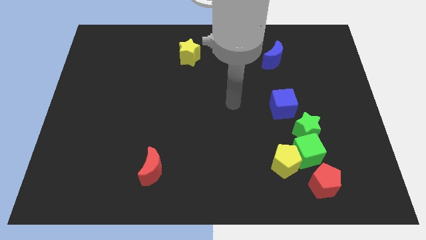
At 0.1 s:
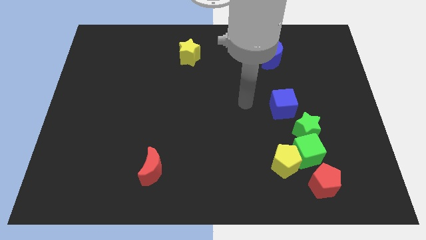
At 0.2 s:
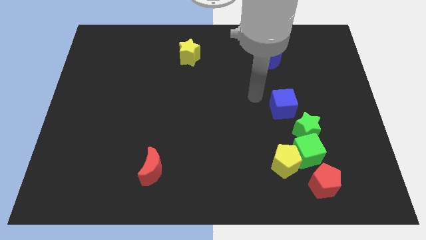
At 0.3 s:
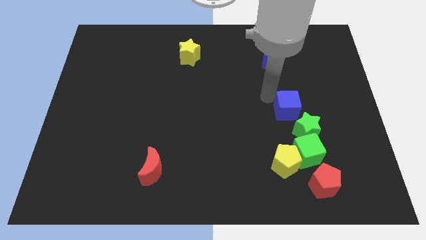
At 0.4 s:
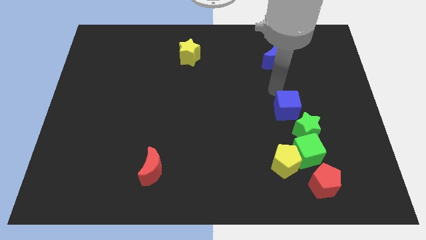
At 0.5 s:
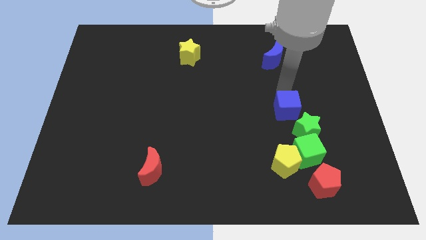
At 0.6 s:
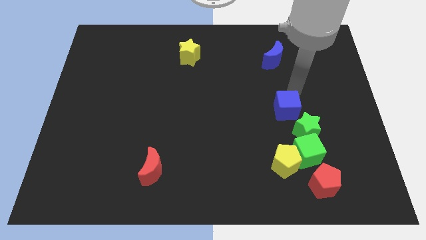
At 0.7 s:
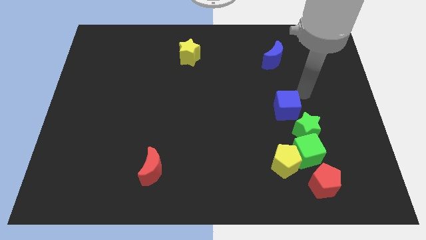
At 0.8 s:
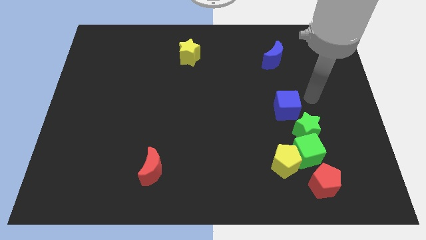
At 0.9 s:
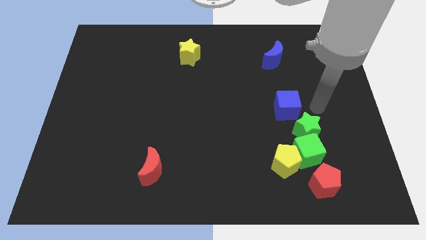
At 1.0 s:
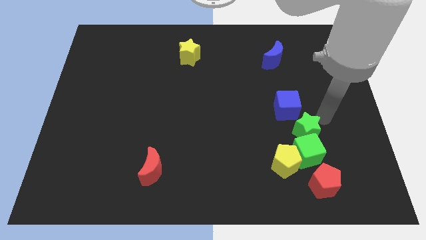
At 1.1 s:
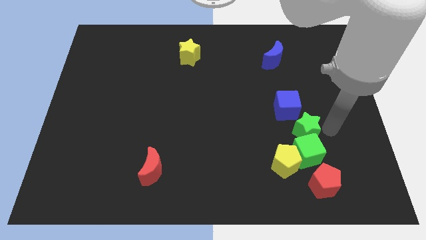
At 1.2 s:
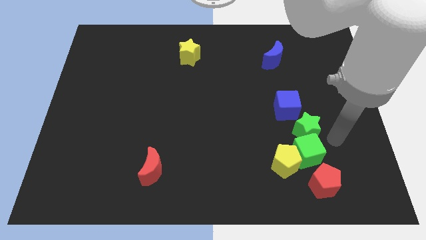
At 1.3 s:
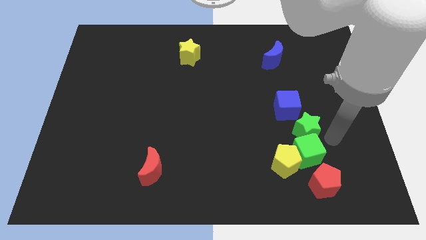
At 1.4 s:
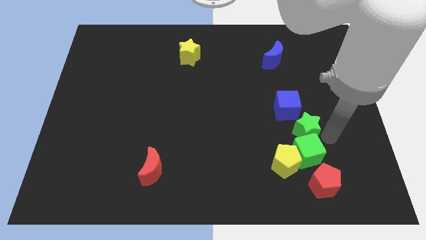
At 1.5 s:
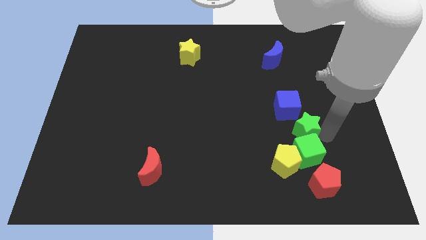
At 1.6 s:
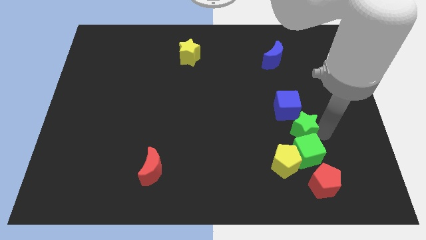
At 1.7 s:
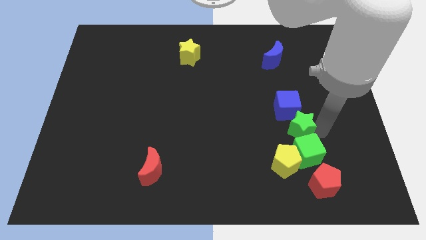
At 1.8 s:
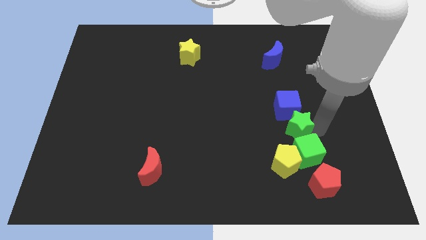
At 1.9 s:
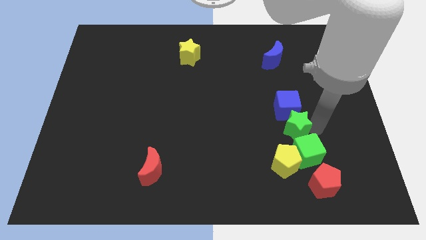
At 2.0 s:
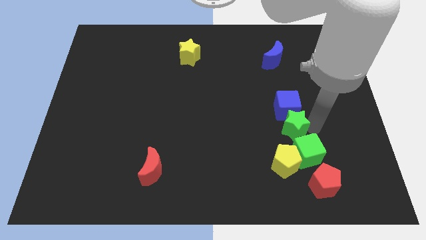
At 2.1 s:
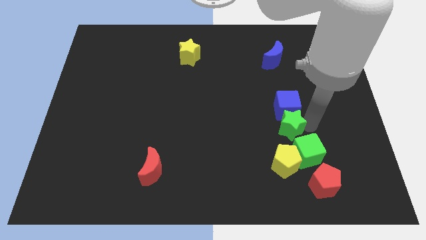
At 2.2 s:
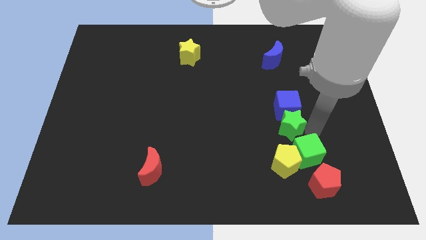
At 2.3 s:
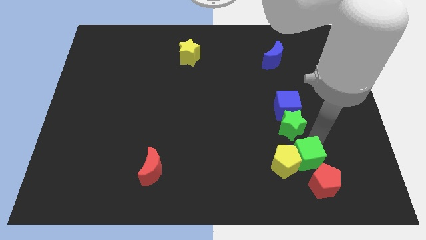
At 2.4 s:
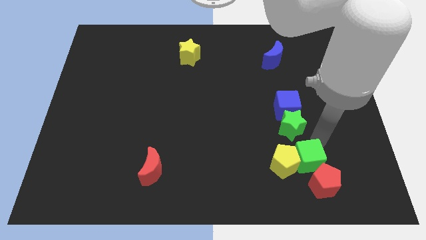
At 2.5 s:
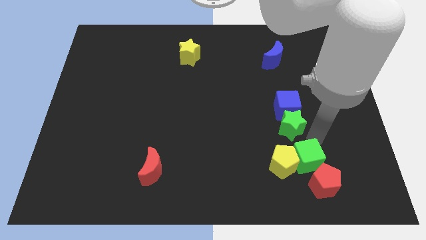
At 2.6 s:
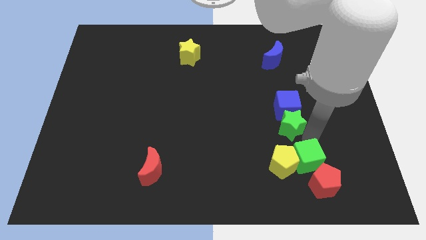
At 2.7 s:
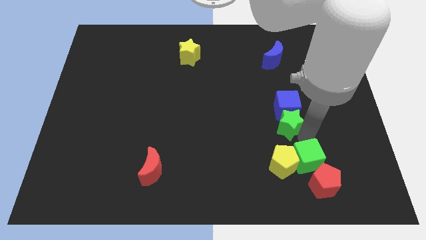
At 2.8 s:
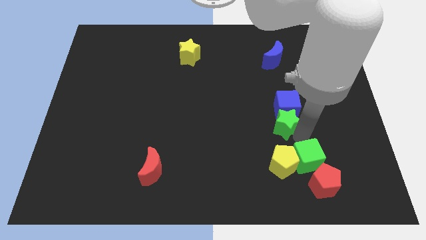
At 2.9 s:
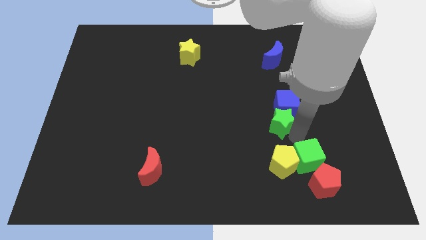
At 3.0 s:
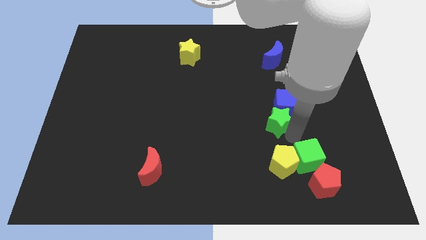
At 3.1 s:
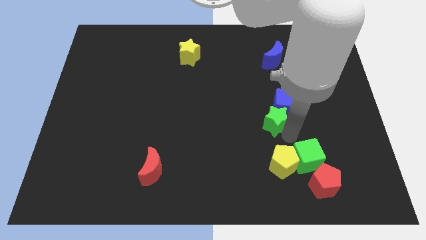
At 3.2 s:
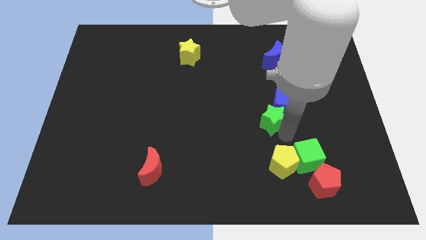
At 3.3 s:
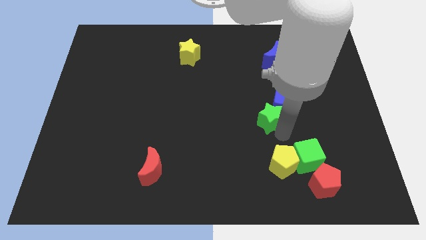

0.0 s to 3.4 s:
slightly push the green star up and left

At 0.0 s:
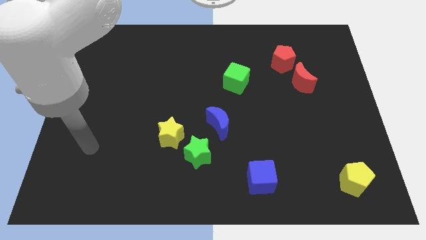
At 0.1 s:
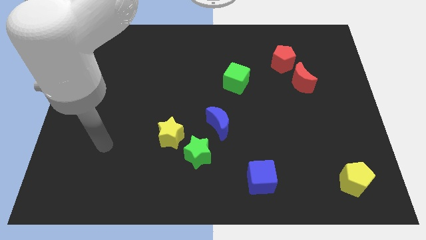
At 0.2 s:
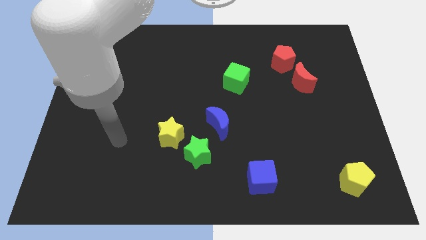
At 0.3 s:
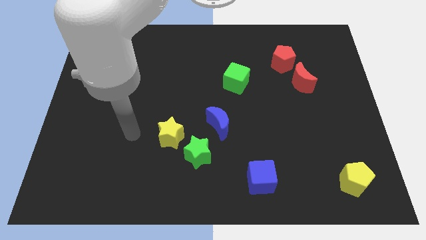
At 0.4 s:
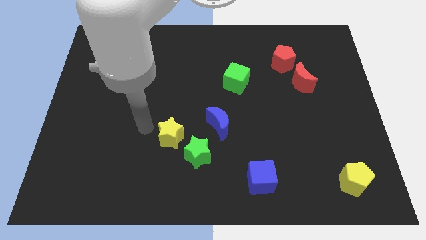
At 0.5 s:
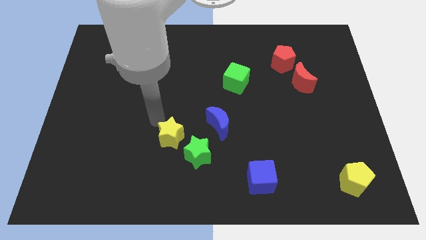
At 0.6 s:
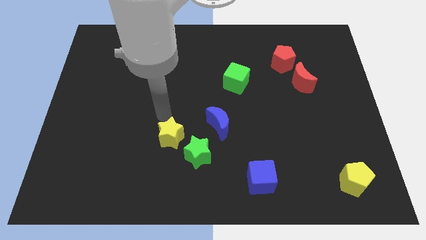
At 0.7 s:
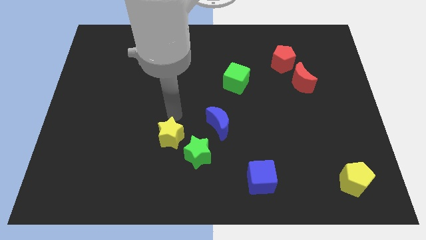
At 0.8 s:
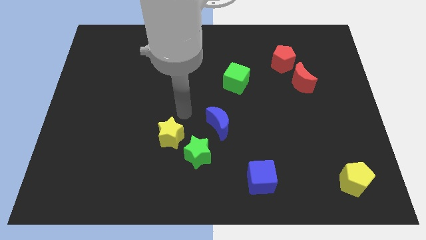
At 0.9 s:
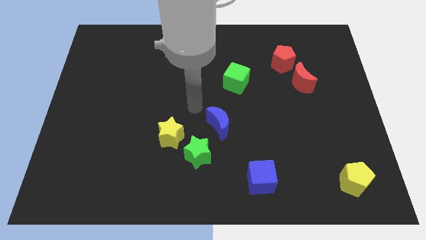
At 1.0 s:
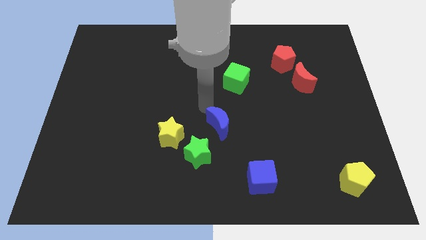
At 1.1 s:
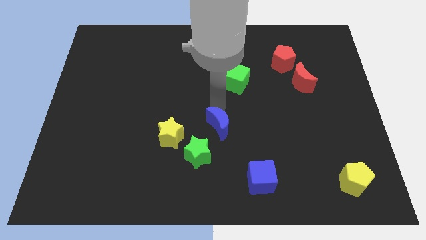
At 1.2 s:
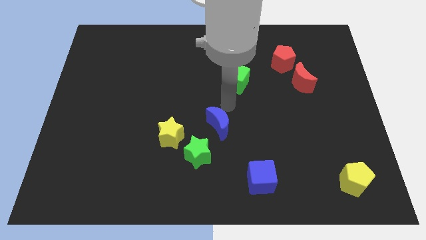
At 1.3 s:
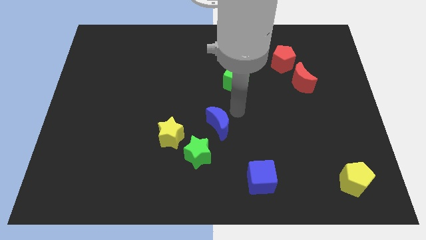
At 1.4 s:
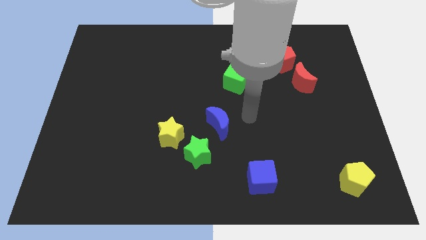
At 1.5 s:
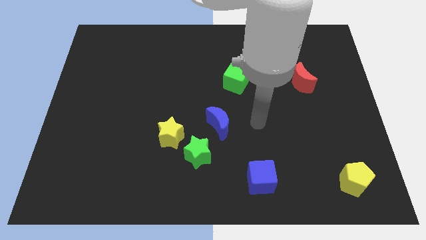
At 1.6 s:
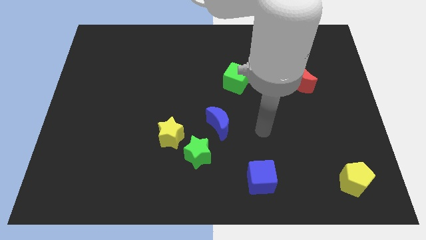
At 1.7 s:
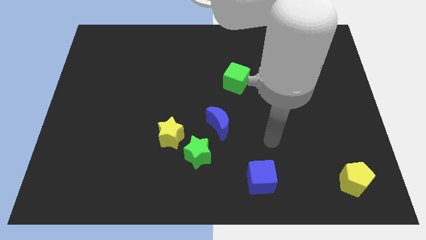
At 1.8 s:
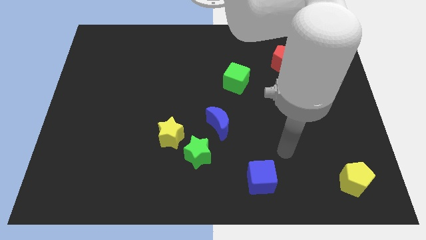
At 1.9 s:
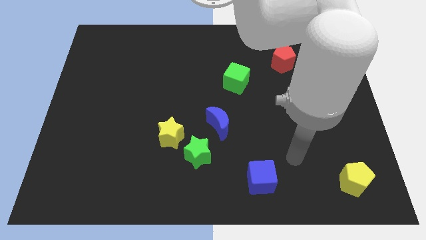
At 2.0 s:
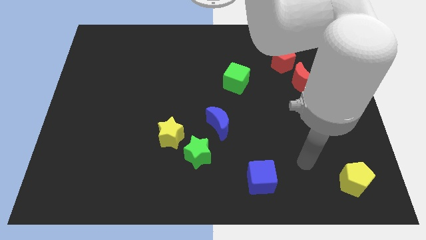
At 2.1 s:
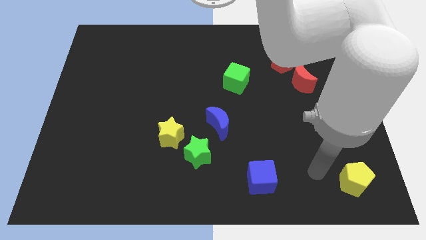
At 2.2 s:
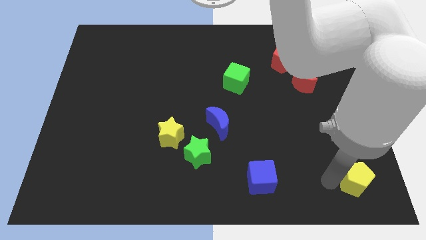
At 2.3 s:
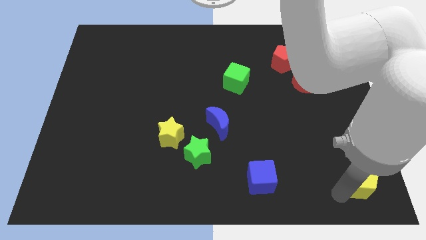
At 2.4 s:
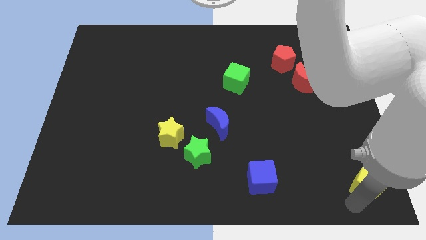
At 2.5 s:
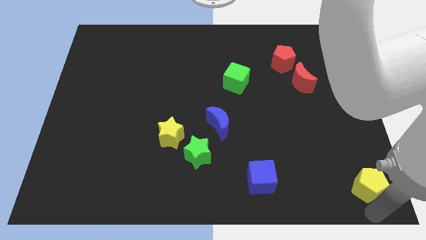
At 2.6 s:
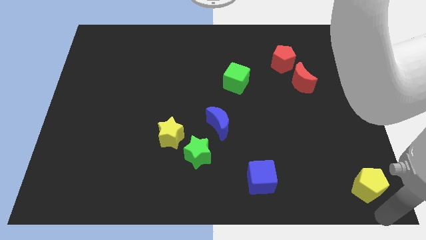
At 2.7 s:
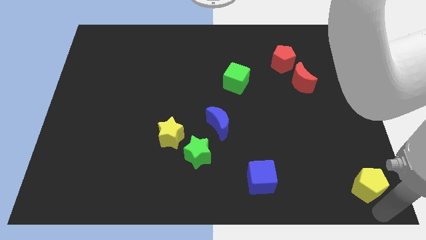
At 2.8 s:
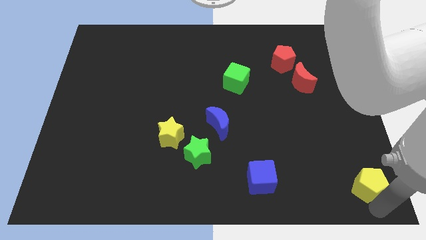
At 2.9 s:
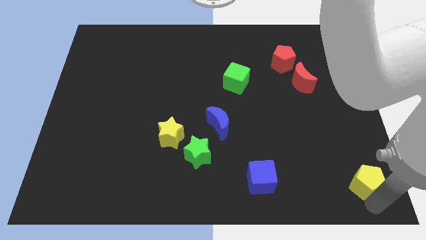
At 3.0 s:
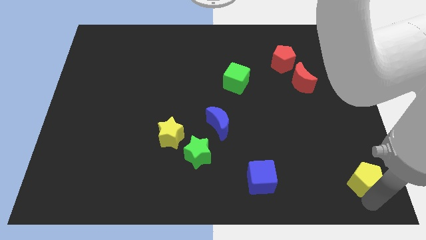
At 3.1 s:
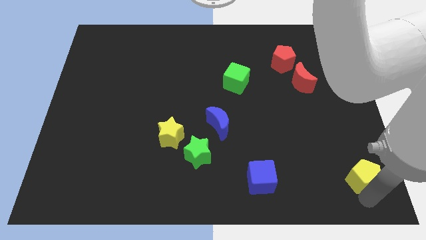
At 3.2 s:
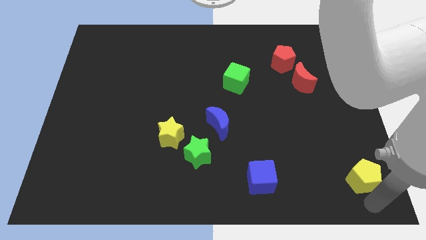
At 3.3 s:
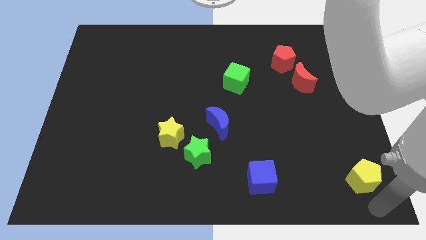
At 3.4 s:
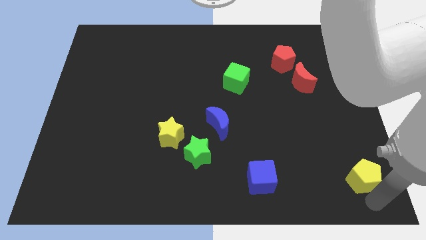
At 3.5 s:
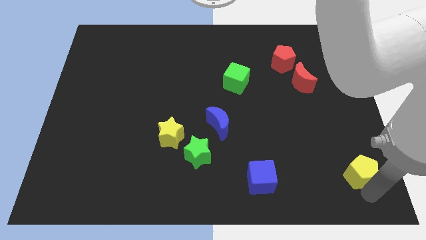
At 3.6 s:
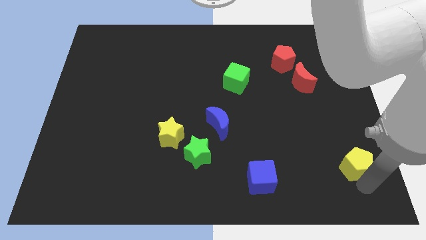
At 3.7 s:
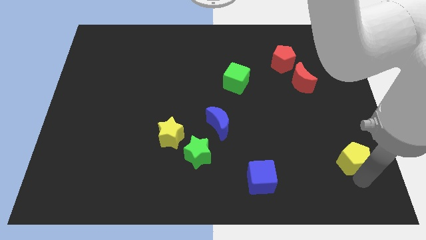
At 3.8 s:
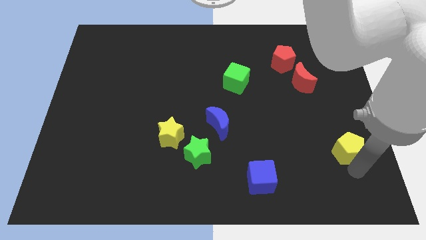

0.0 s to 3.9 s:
push the yellow pentagon slightly upwards

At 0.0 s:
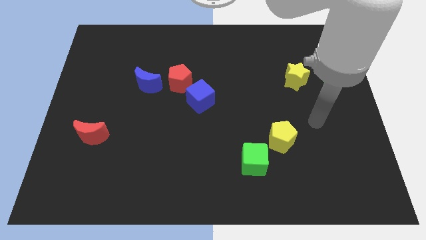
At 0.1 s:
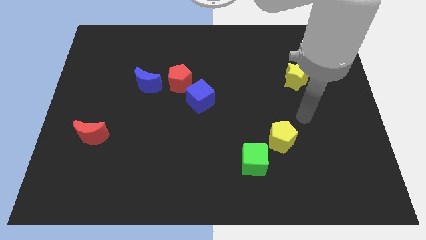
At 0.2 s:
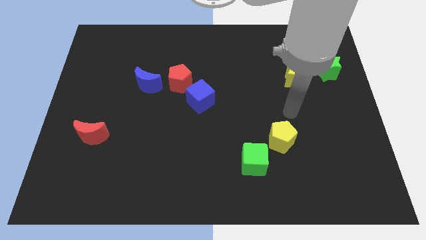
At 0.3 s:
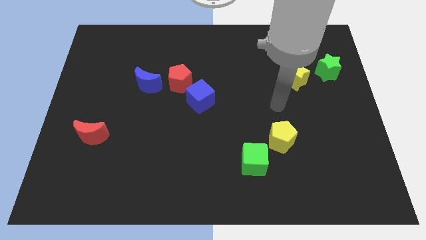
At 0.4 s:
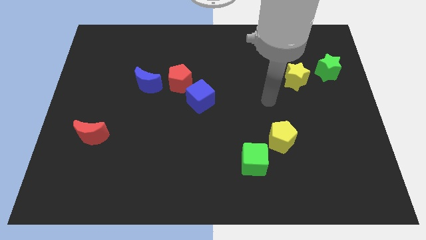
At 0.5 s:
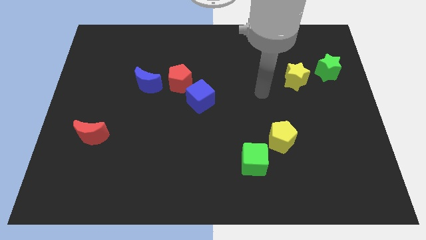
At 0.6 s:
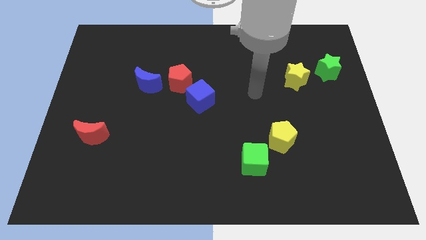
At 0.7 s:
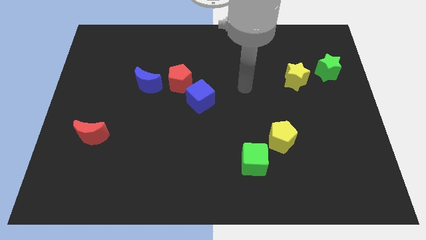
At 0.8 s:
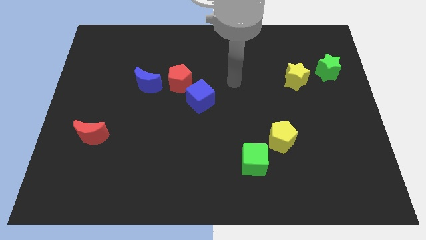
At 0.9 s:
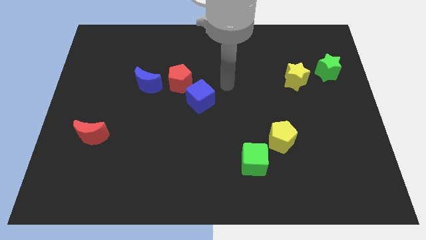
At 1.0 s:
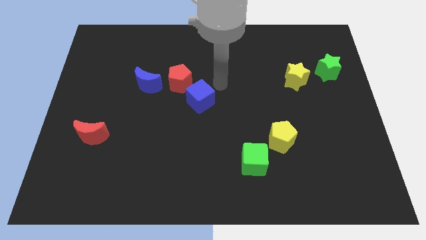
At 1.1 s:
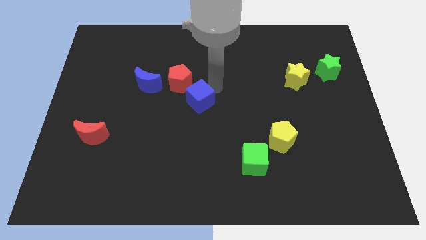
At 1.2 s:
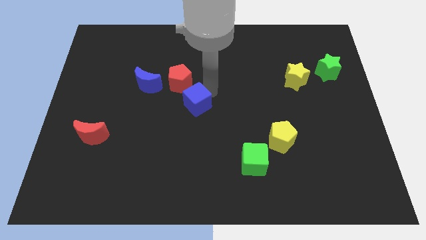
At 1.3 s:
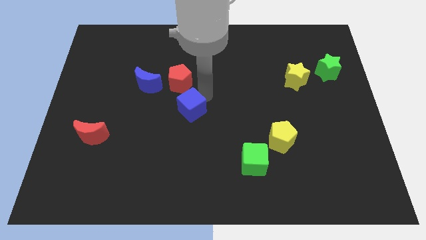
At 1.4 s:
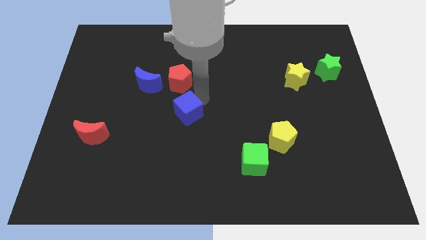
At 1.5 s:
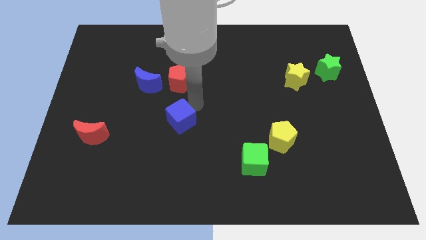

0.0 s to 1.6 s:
slightly push the blue cube downwards and then to the left
